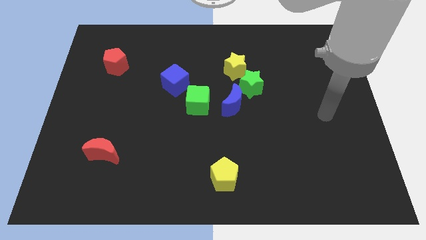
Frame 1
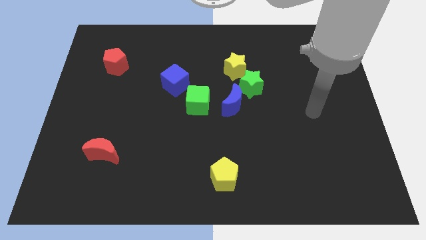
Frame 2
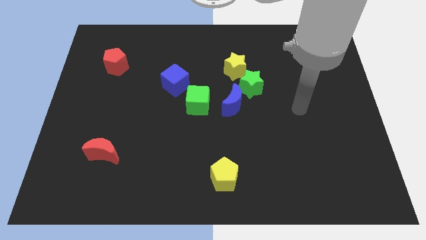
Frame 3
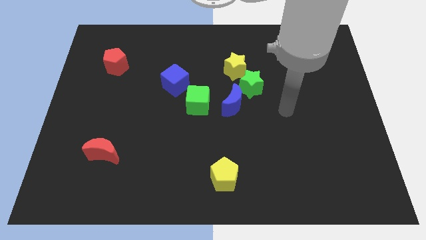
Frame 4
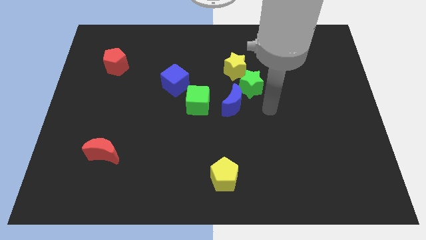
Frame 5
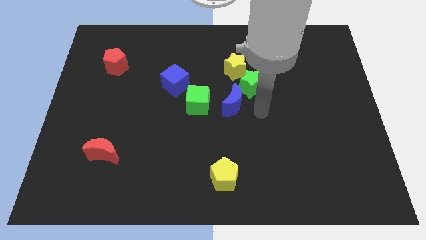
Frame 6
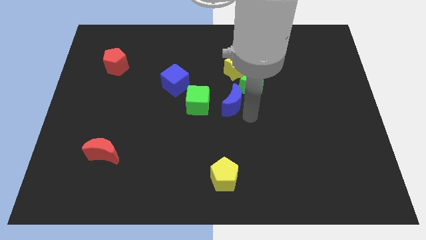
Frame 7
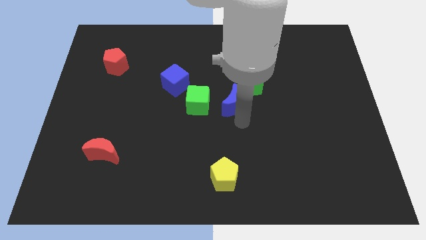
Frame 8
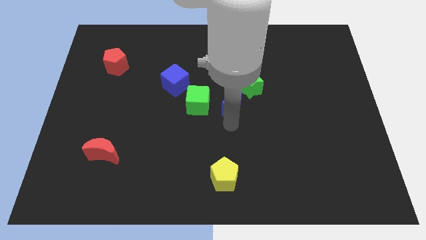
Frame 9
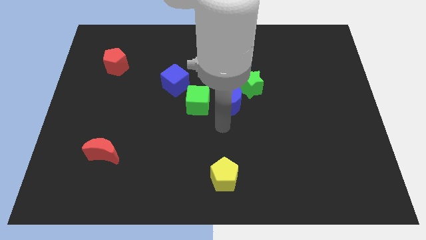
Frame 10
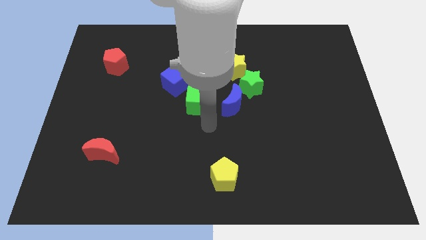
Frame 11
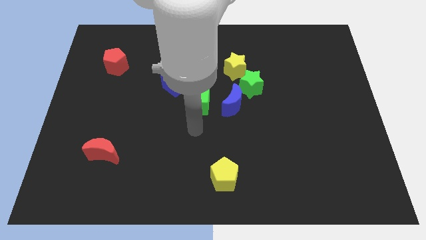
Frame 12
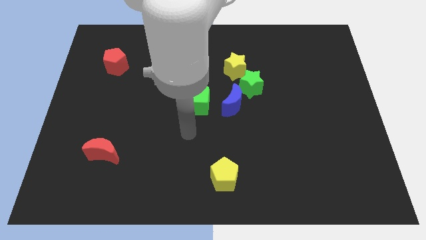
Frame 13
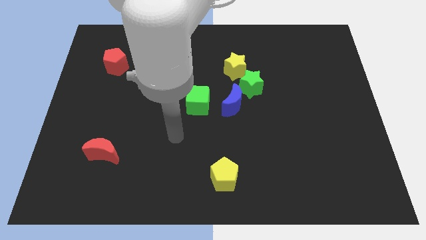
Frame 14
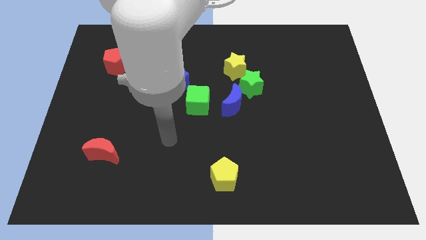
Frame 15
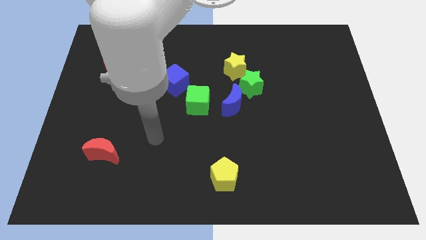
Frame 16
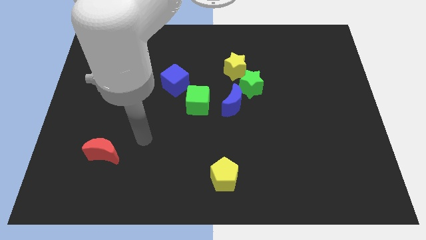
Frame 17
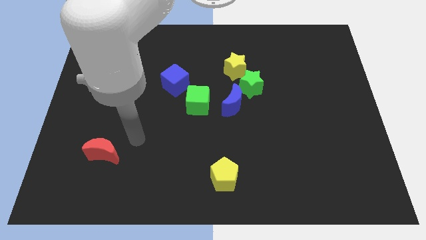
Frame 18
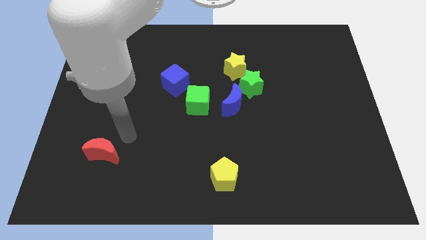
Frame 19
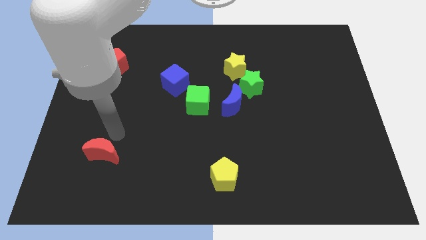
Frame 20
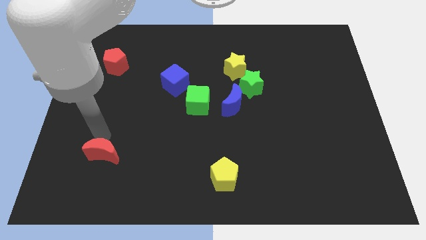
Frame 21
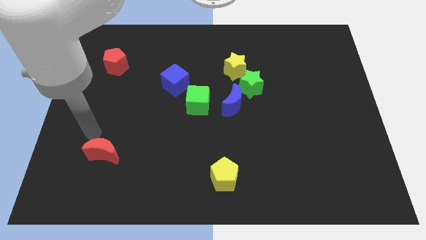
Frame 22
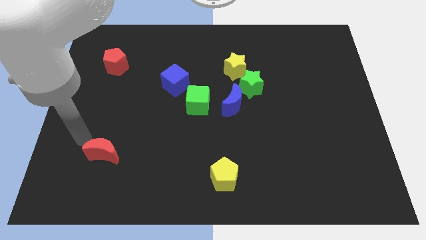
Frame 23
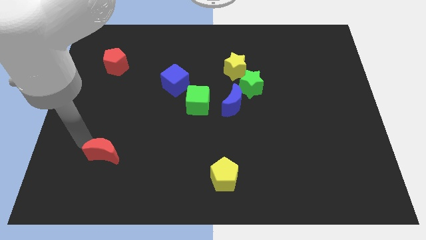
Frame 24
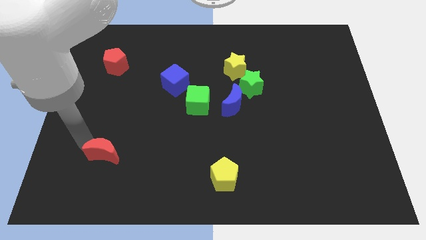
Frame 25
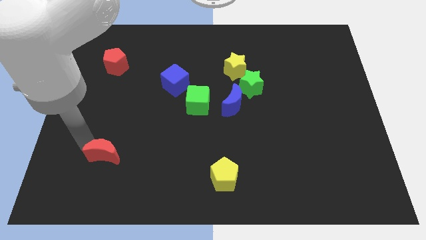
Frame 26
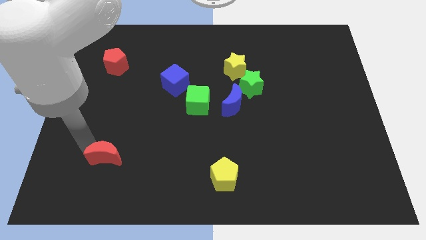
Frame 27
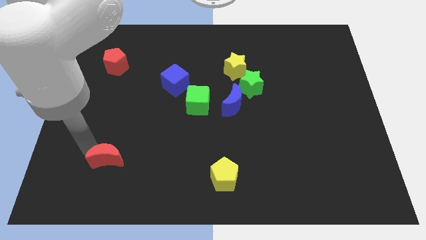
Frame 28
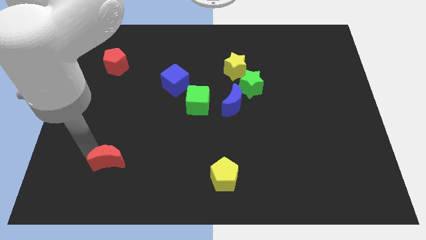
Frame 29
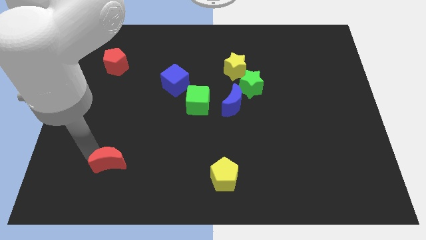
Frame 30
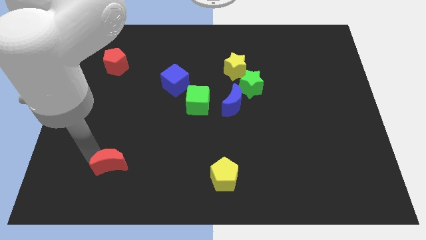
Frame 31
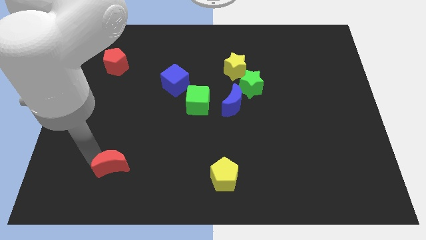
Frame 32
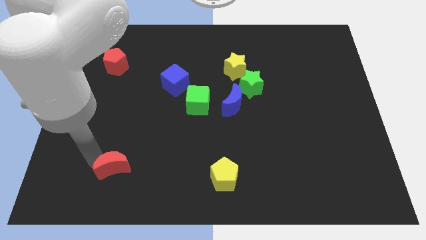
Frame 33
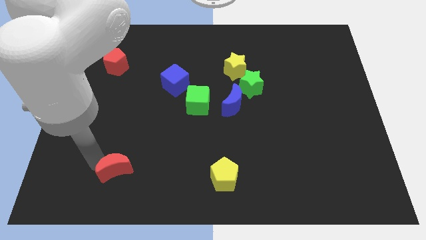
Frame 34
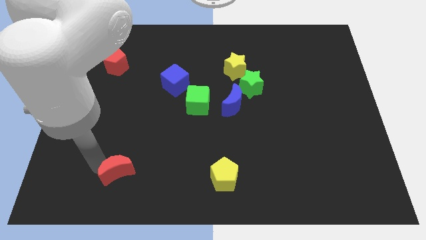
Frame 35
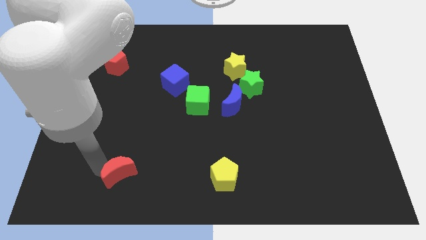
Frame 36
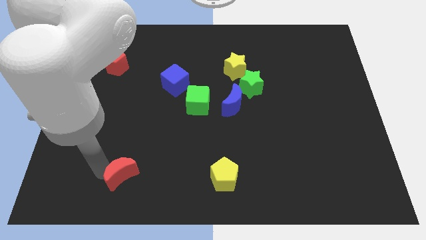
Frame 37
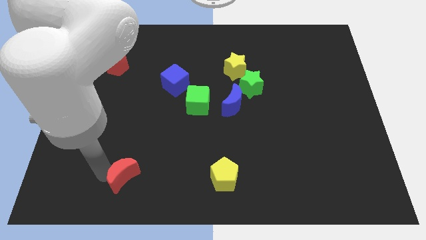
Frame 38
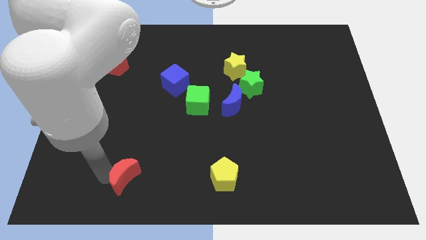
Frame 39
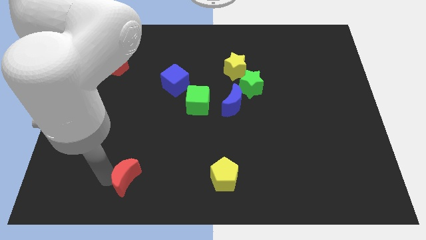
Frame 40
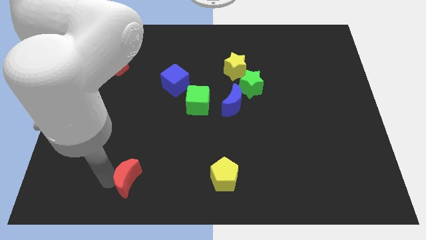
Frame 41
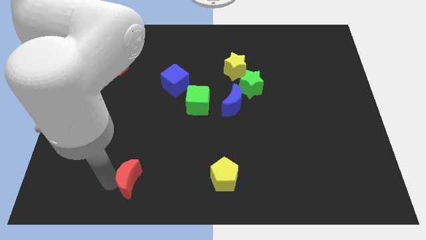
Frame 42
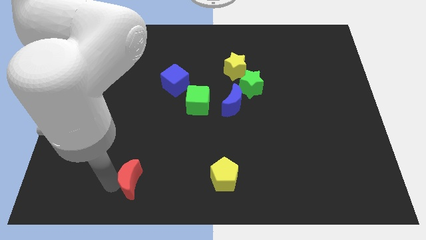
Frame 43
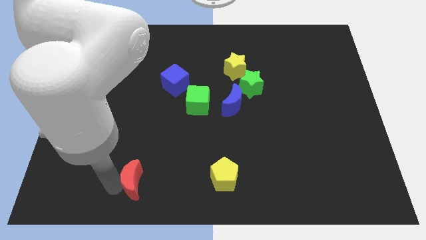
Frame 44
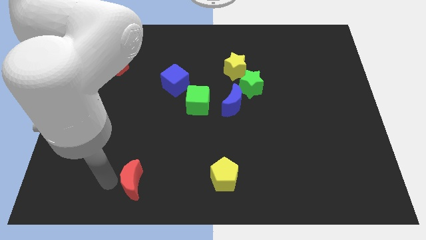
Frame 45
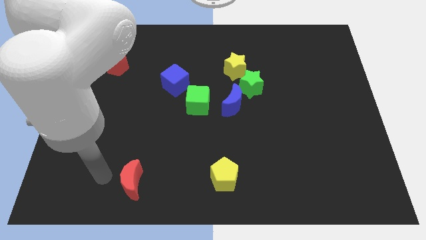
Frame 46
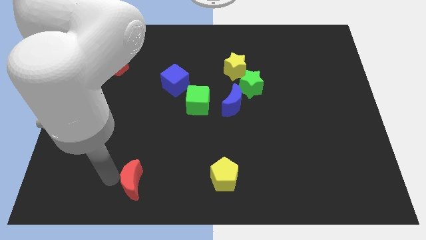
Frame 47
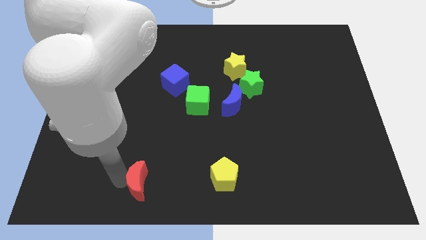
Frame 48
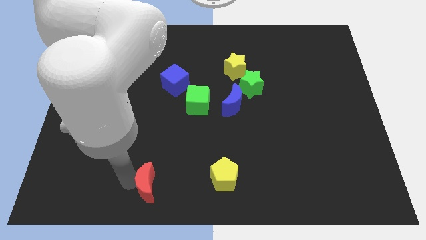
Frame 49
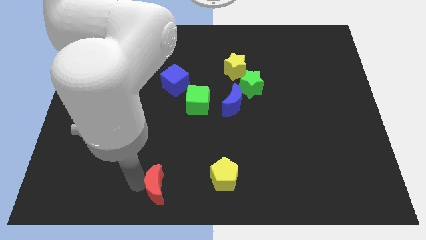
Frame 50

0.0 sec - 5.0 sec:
move the red moon to the bottom

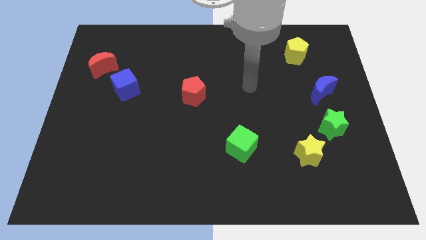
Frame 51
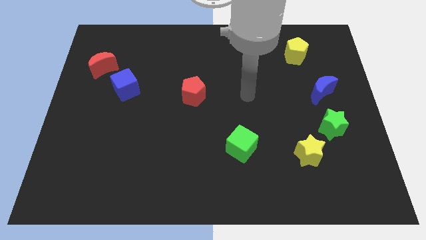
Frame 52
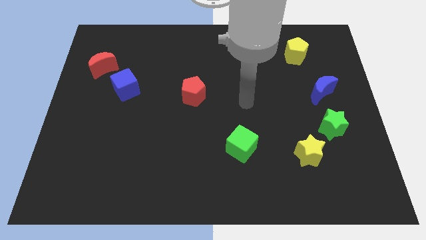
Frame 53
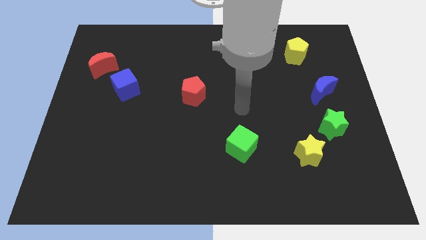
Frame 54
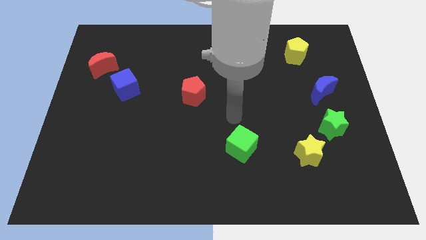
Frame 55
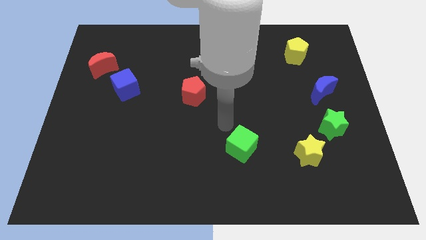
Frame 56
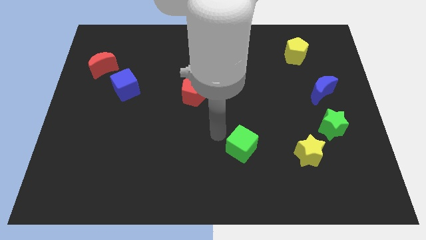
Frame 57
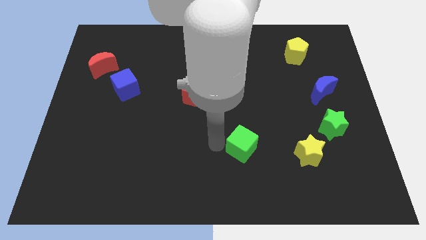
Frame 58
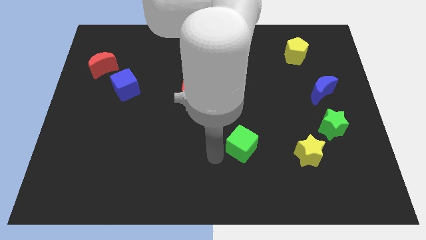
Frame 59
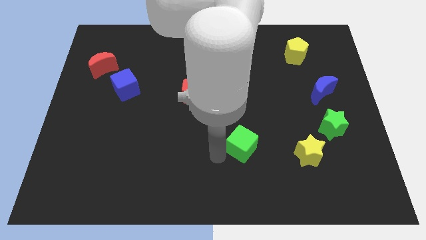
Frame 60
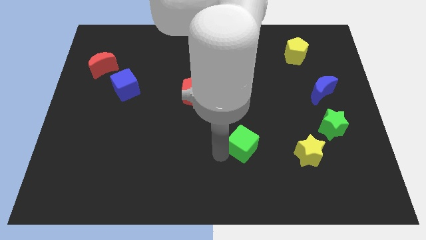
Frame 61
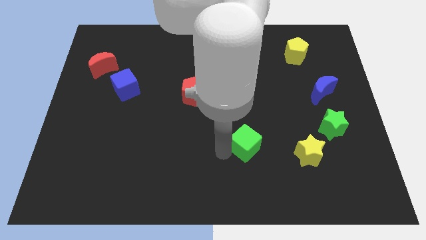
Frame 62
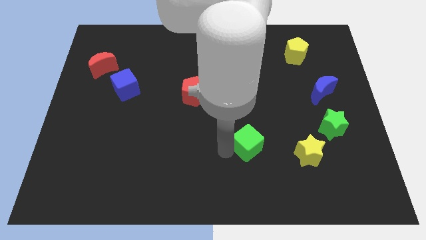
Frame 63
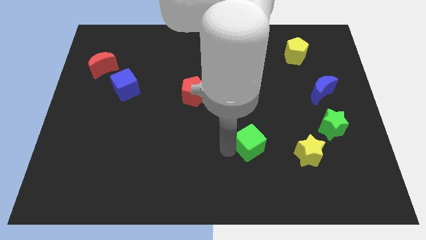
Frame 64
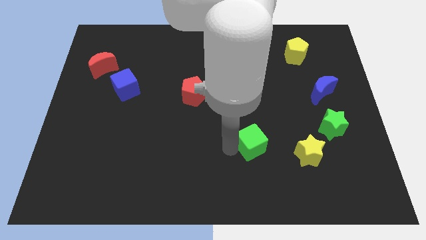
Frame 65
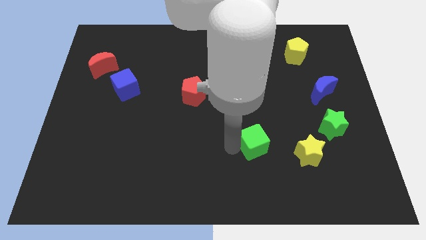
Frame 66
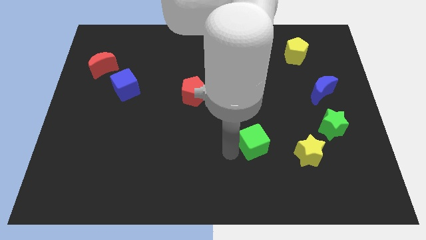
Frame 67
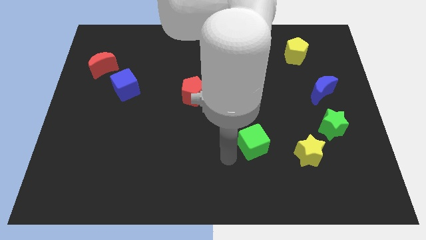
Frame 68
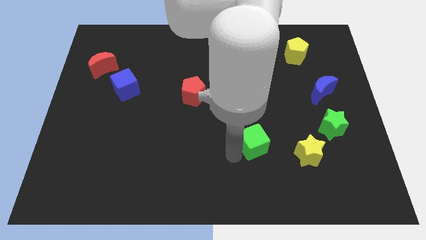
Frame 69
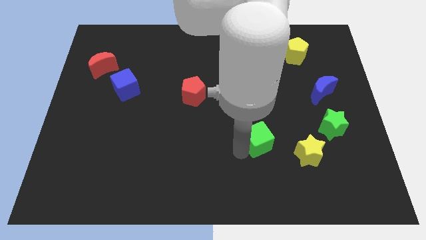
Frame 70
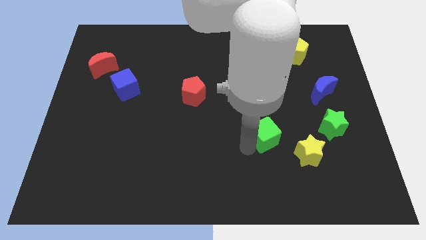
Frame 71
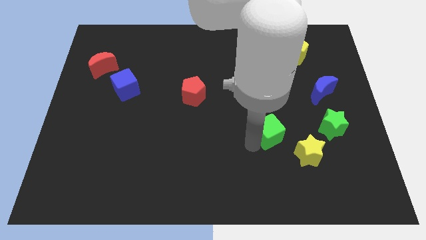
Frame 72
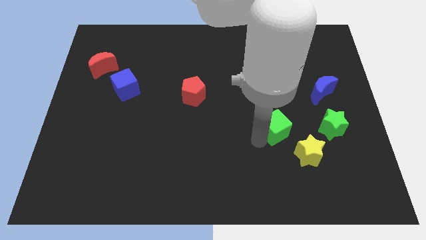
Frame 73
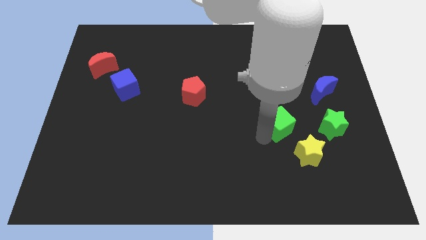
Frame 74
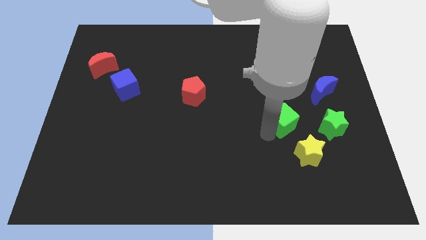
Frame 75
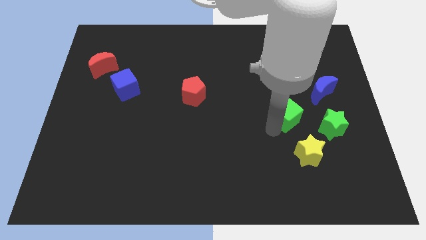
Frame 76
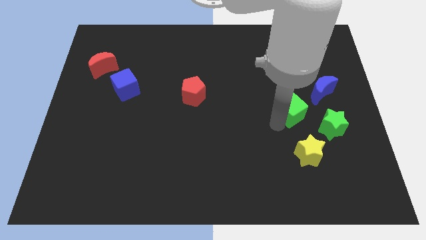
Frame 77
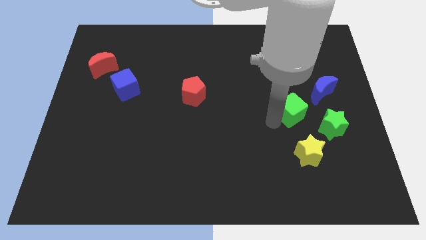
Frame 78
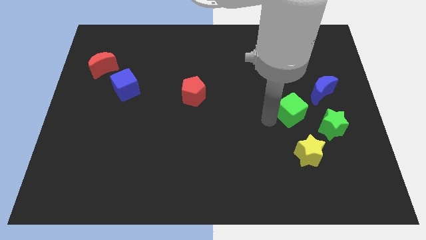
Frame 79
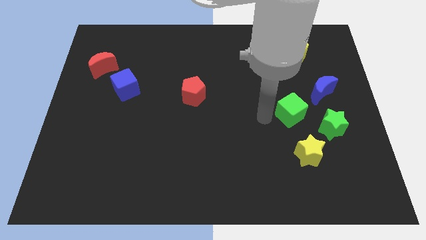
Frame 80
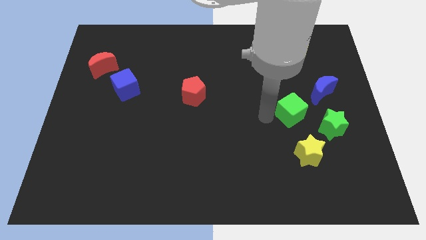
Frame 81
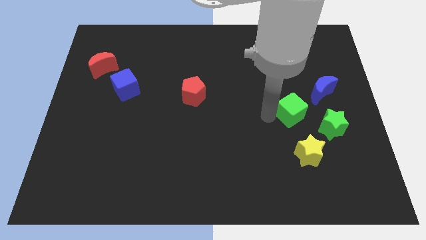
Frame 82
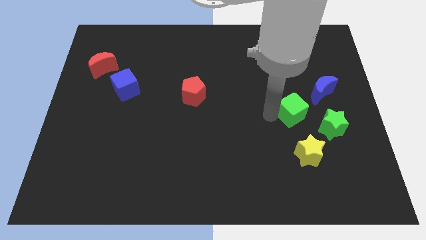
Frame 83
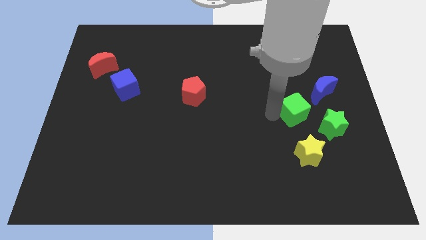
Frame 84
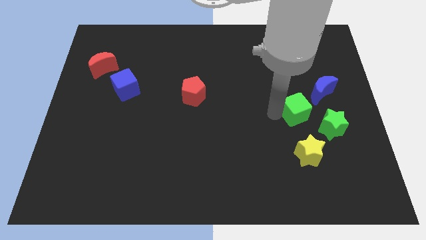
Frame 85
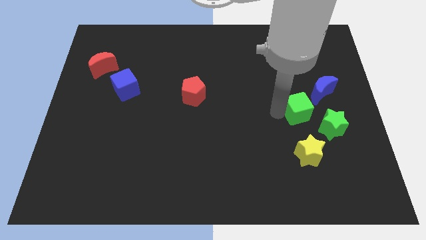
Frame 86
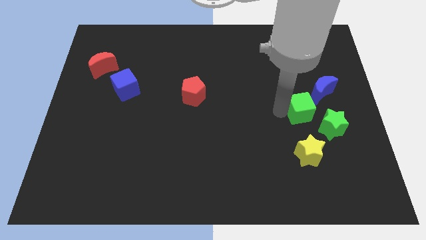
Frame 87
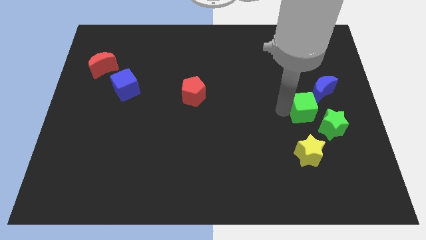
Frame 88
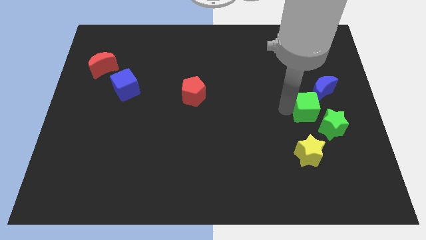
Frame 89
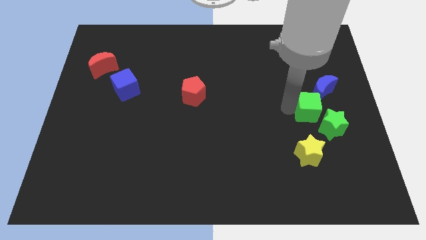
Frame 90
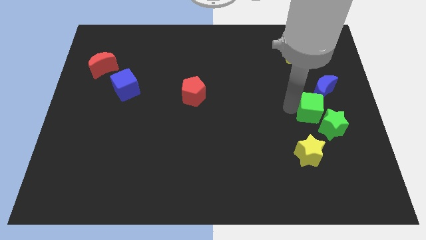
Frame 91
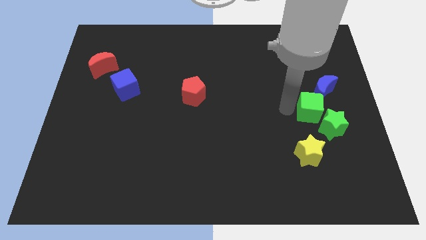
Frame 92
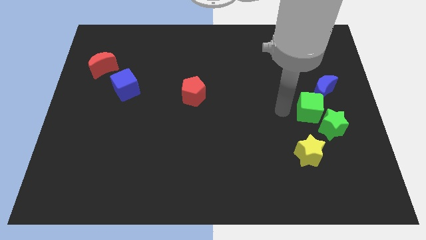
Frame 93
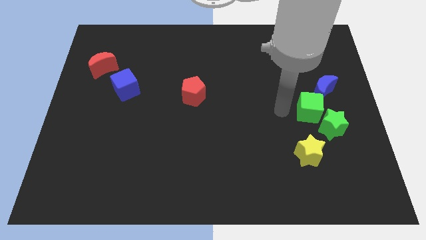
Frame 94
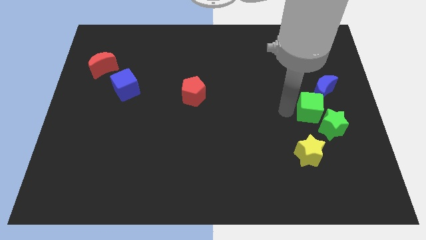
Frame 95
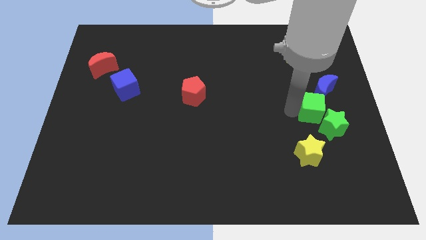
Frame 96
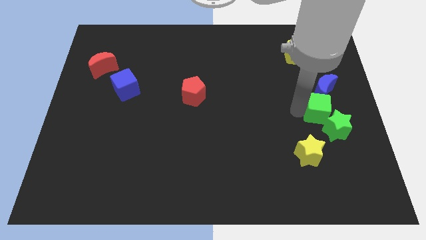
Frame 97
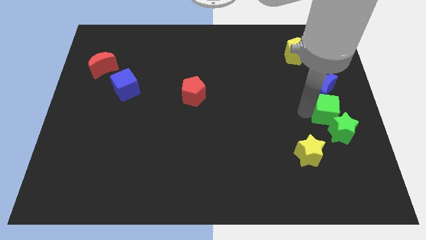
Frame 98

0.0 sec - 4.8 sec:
push the green cube to the right side
